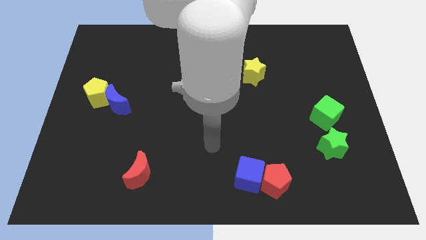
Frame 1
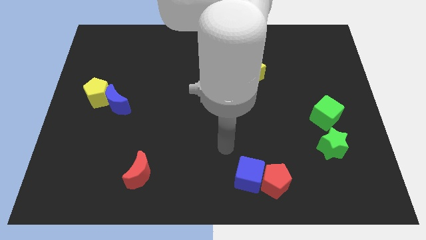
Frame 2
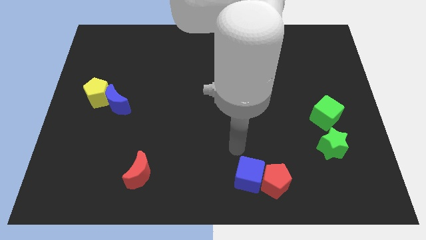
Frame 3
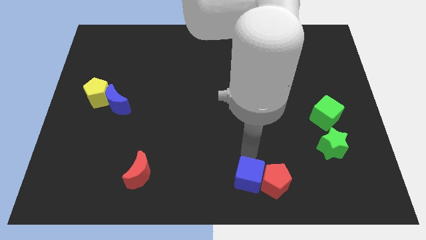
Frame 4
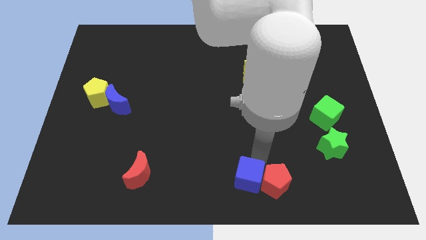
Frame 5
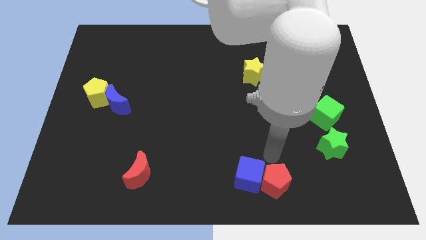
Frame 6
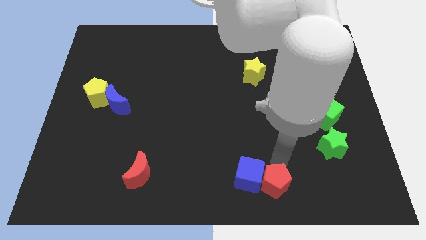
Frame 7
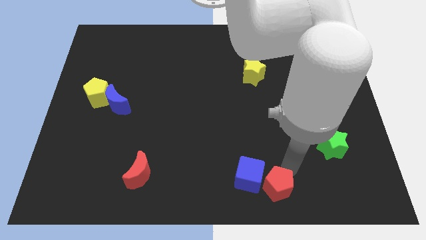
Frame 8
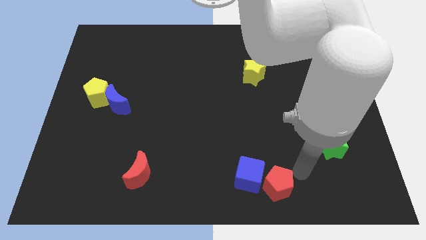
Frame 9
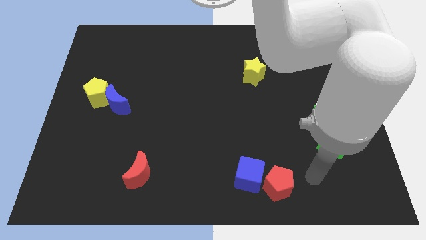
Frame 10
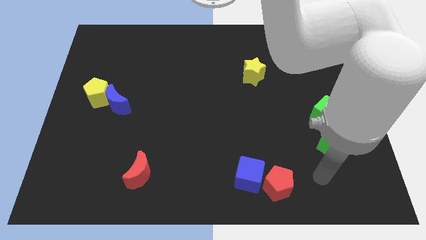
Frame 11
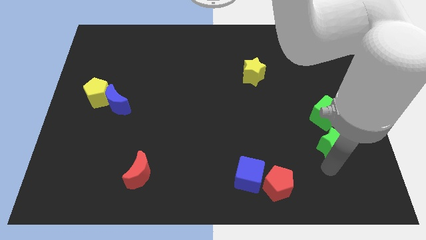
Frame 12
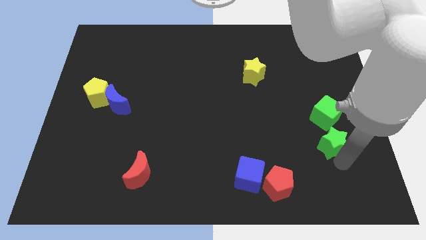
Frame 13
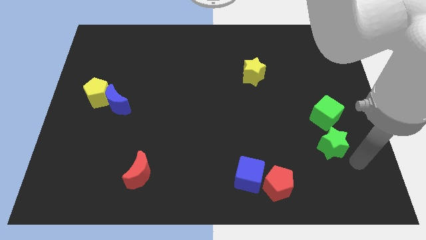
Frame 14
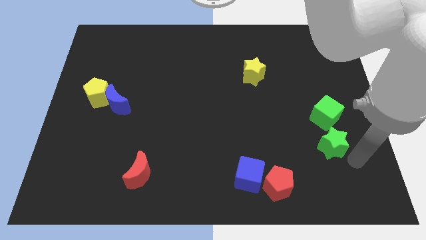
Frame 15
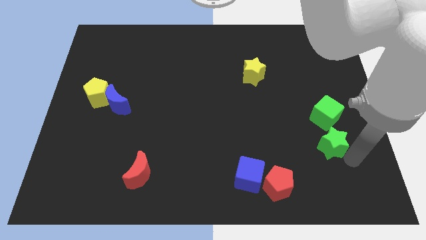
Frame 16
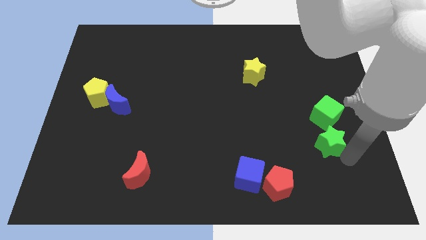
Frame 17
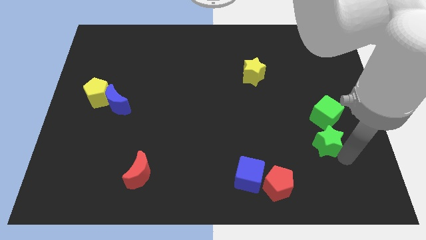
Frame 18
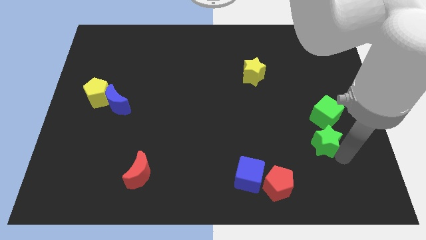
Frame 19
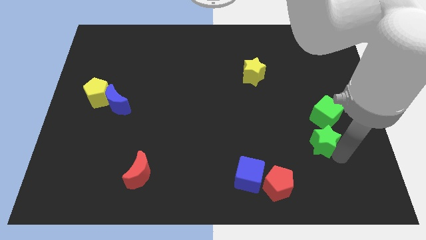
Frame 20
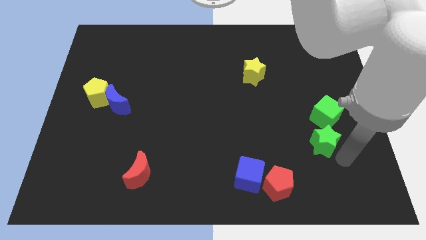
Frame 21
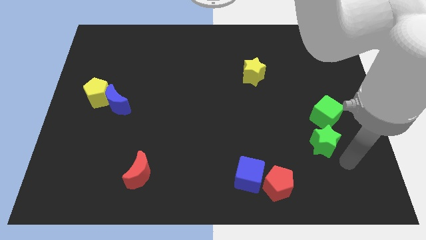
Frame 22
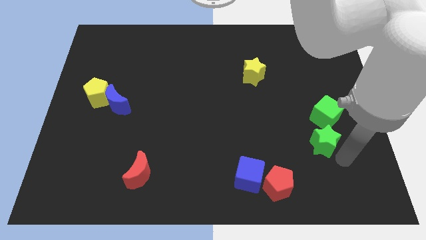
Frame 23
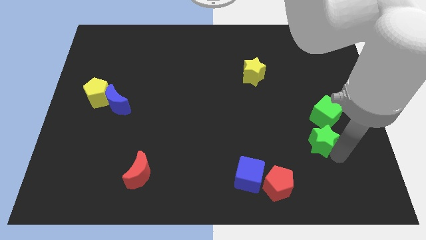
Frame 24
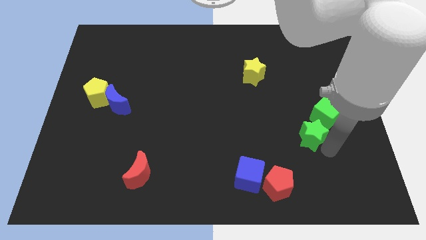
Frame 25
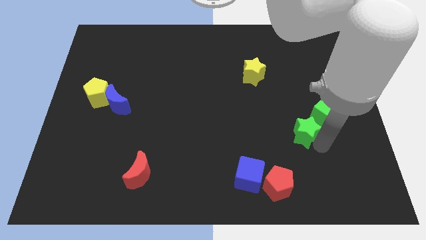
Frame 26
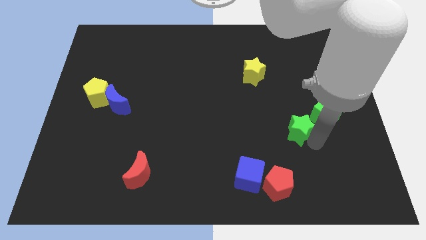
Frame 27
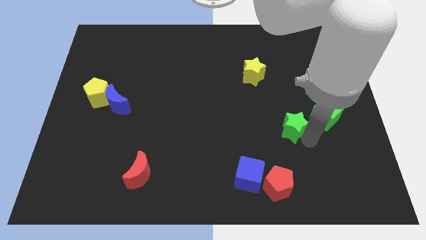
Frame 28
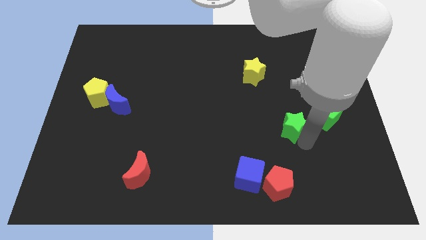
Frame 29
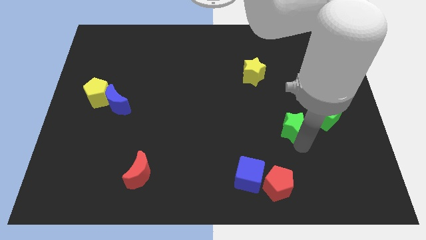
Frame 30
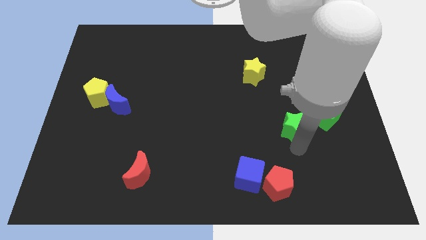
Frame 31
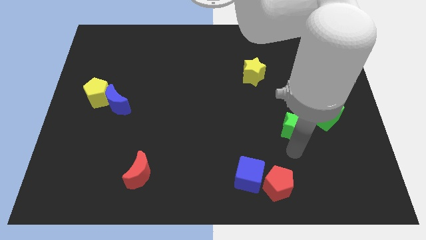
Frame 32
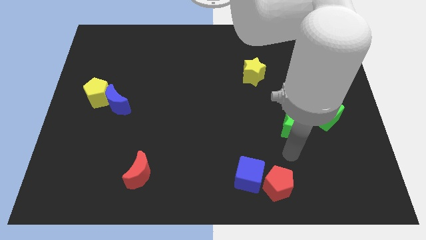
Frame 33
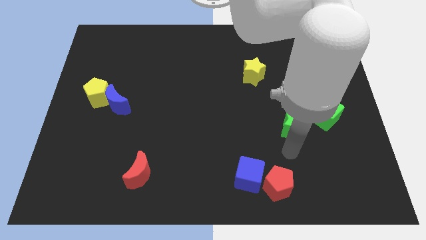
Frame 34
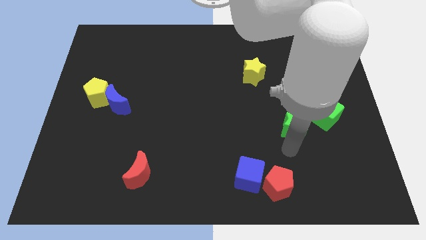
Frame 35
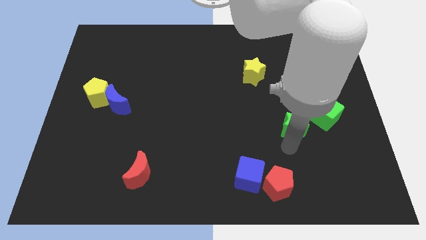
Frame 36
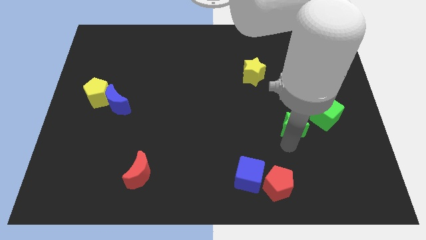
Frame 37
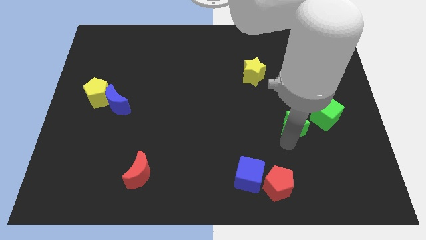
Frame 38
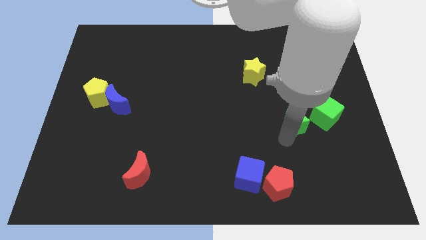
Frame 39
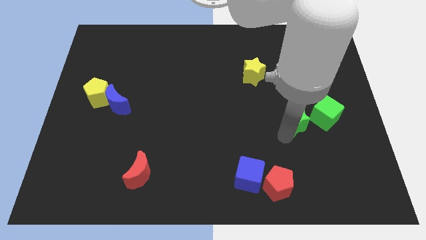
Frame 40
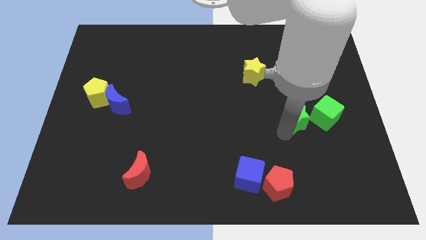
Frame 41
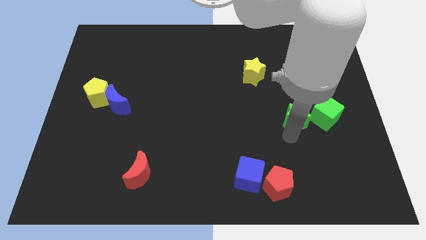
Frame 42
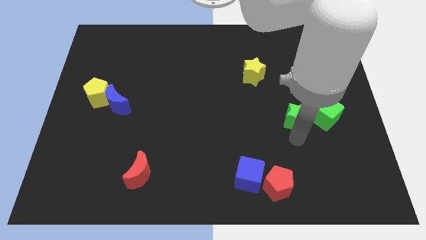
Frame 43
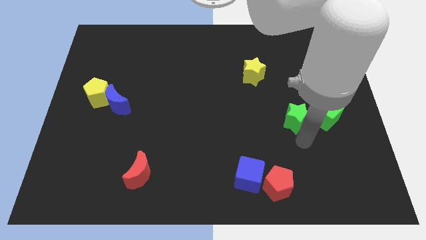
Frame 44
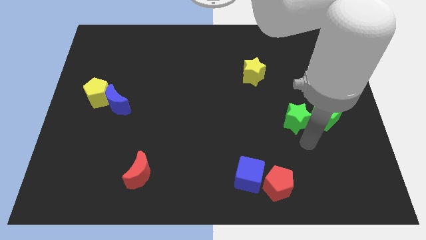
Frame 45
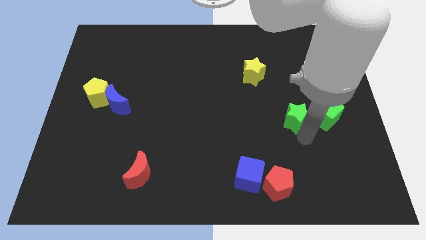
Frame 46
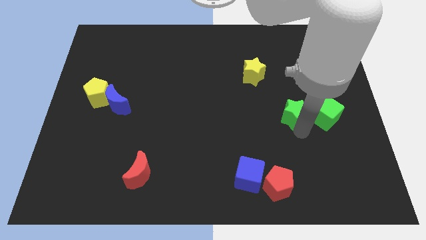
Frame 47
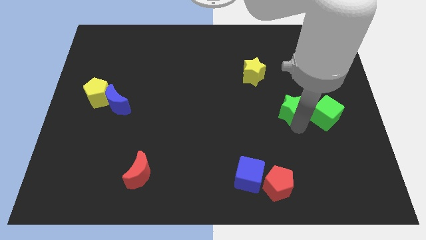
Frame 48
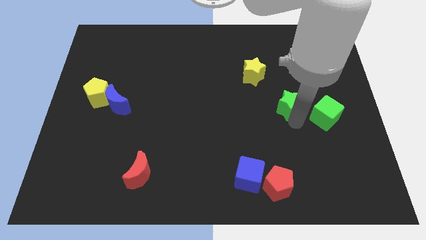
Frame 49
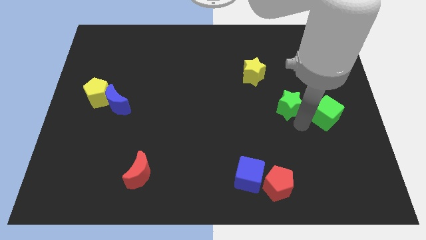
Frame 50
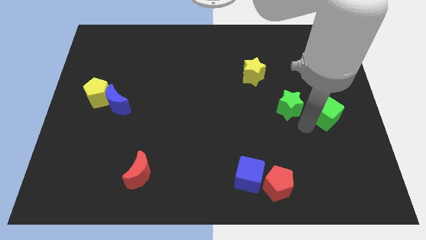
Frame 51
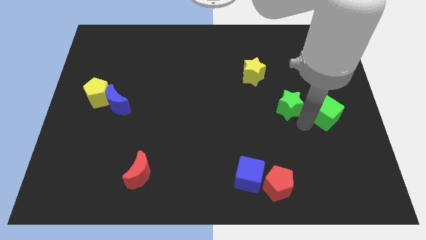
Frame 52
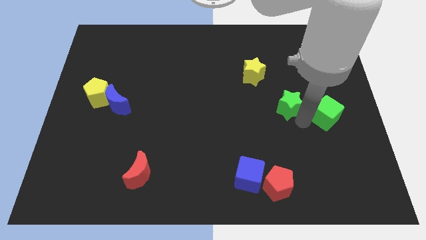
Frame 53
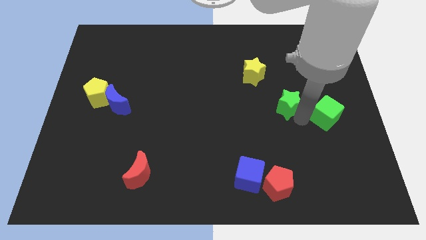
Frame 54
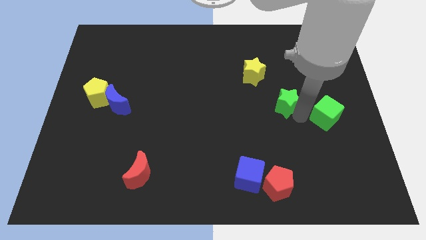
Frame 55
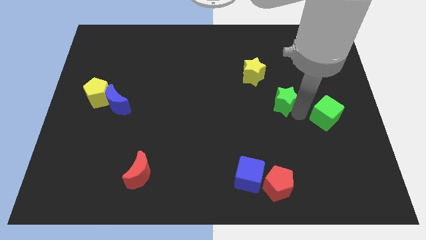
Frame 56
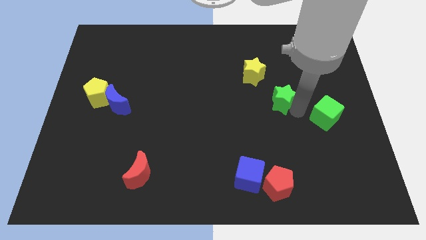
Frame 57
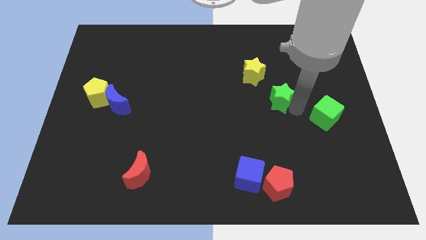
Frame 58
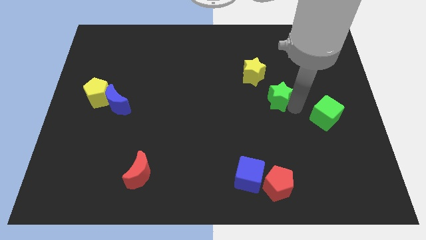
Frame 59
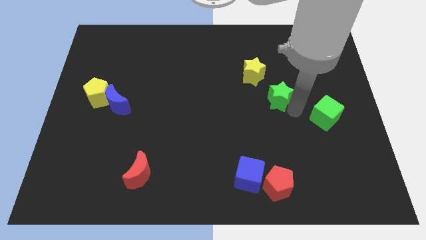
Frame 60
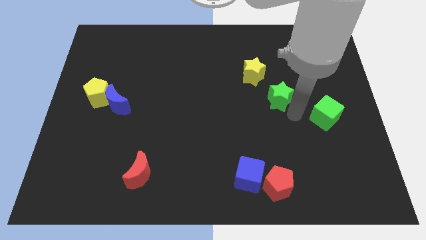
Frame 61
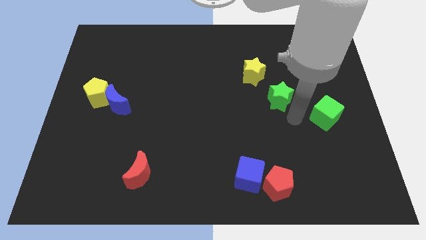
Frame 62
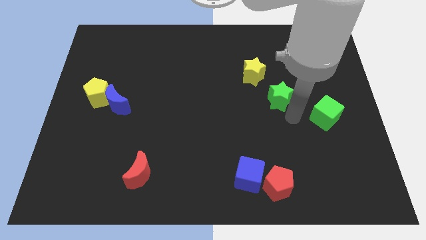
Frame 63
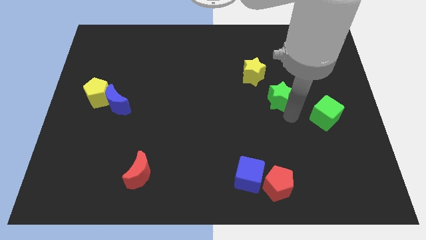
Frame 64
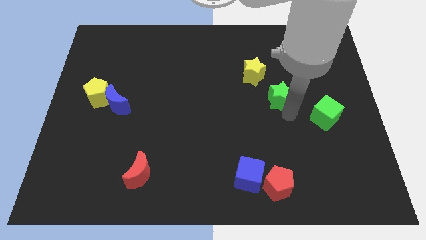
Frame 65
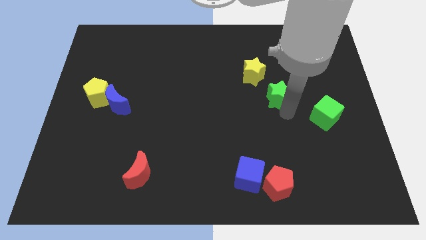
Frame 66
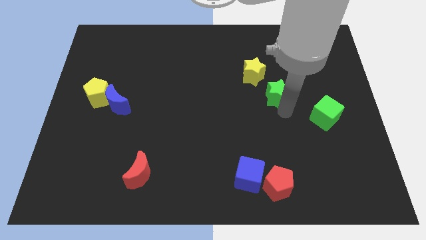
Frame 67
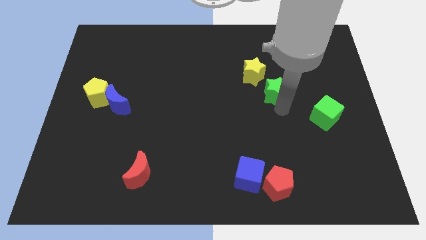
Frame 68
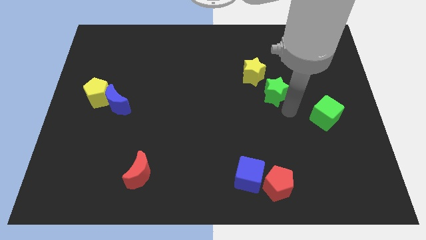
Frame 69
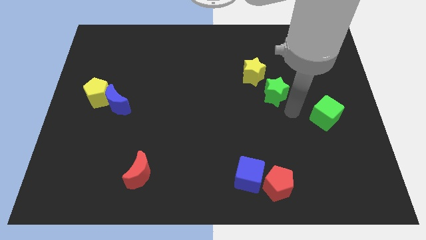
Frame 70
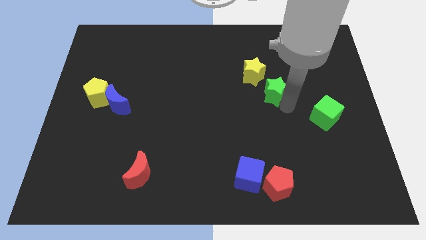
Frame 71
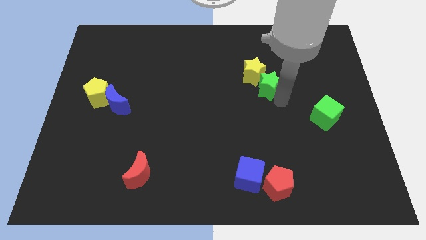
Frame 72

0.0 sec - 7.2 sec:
put the green star towards the yellow star
